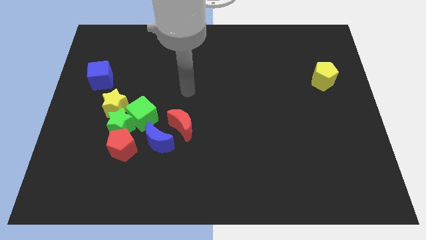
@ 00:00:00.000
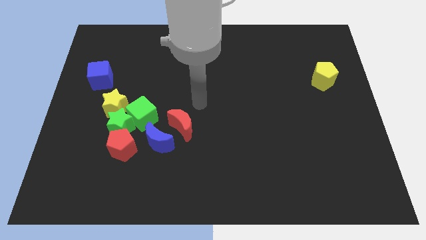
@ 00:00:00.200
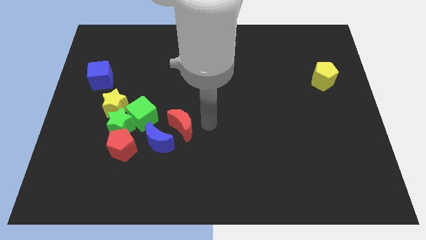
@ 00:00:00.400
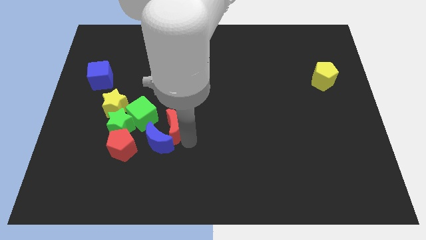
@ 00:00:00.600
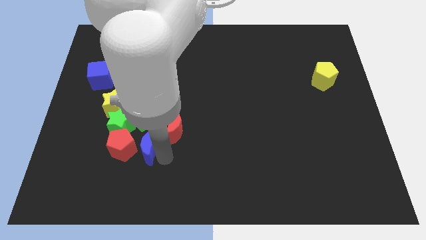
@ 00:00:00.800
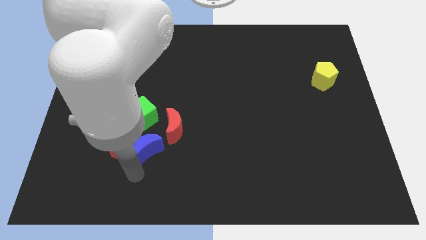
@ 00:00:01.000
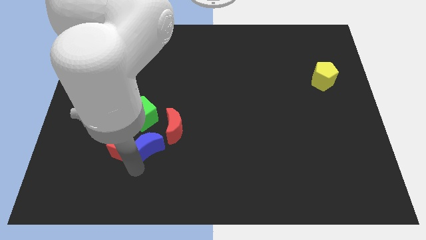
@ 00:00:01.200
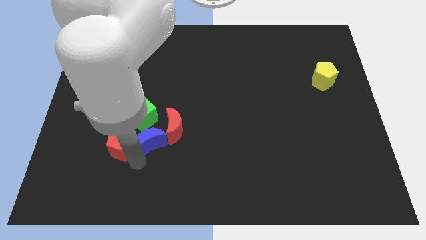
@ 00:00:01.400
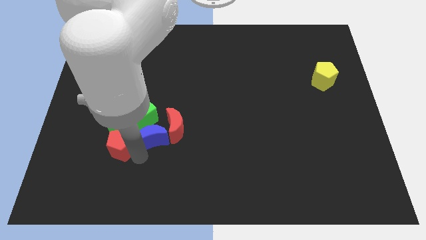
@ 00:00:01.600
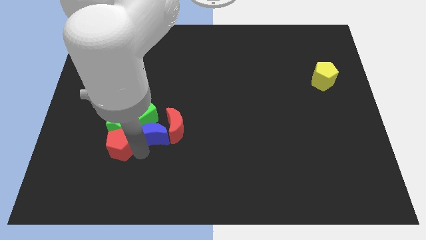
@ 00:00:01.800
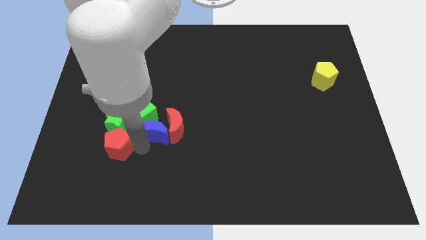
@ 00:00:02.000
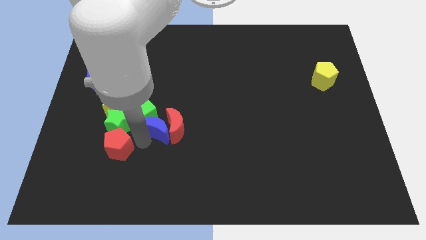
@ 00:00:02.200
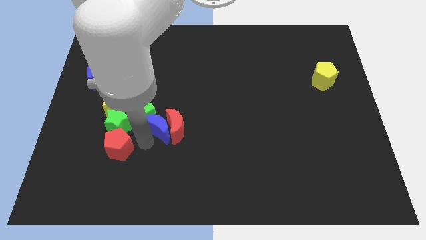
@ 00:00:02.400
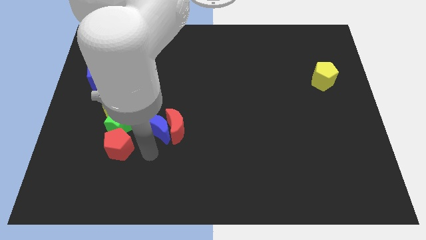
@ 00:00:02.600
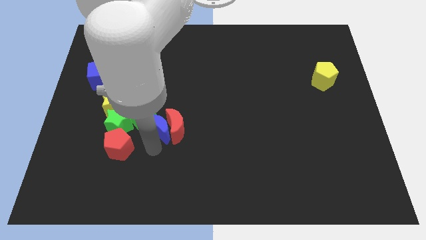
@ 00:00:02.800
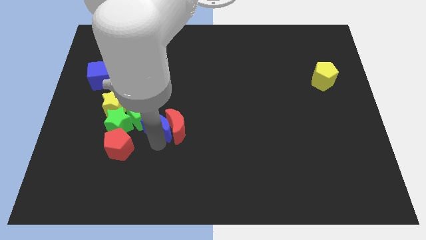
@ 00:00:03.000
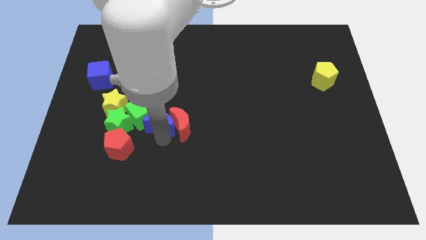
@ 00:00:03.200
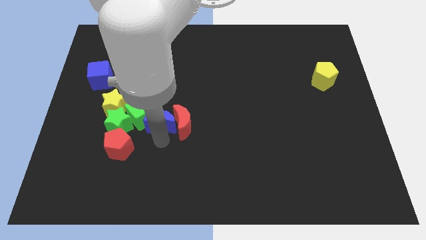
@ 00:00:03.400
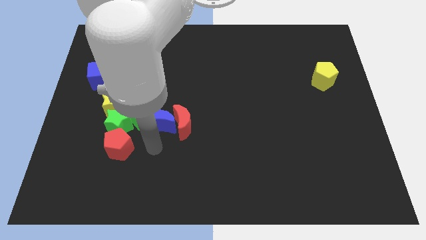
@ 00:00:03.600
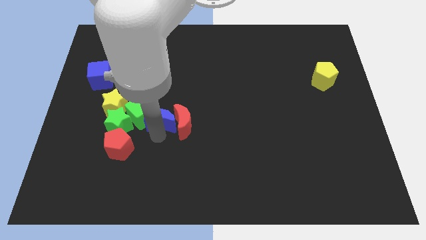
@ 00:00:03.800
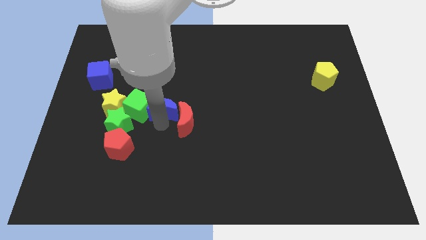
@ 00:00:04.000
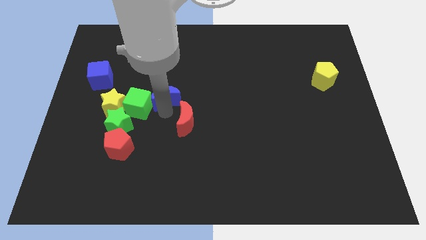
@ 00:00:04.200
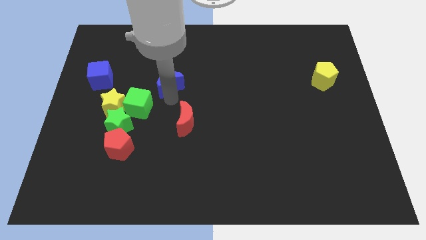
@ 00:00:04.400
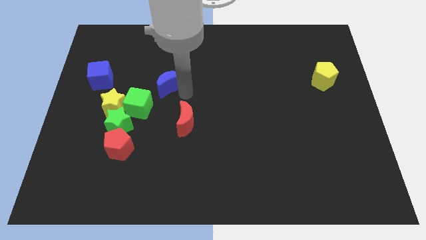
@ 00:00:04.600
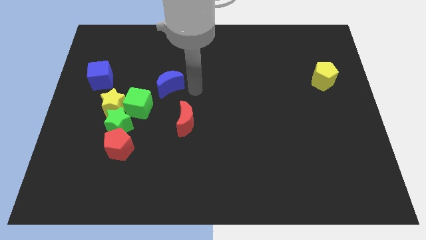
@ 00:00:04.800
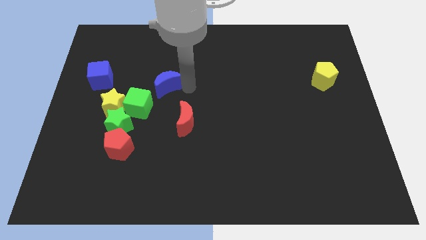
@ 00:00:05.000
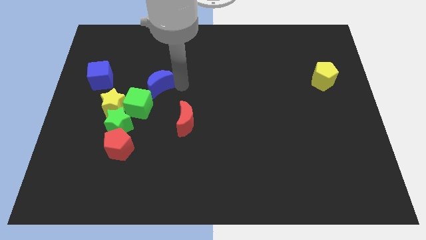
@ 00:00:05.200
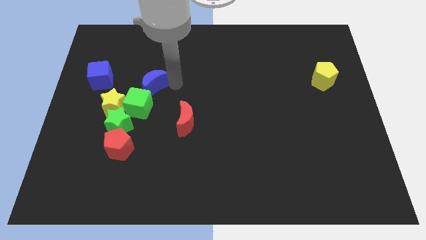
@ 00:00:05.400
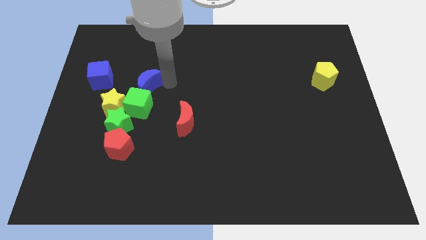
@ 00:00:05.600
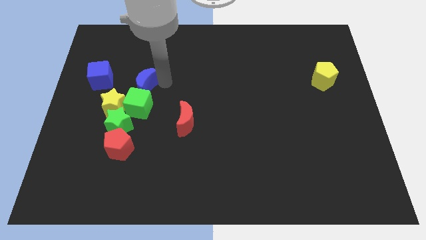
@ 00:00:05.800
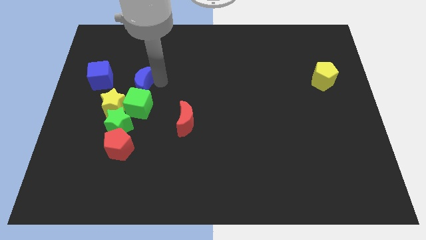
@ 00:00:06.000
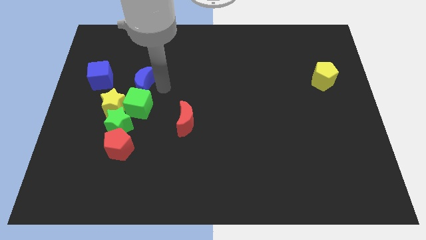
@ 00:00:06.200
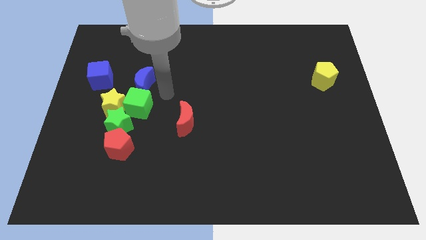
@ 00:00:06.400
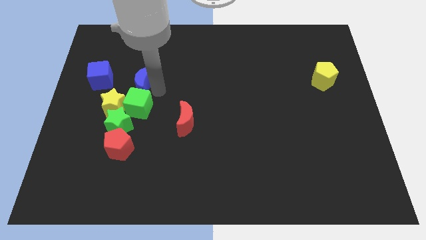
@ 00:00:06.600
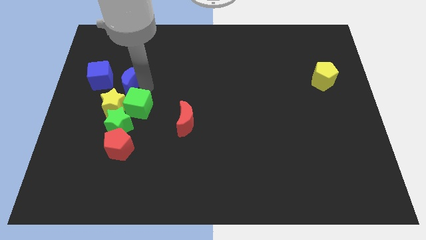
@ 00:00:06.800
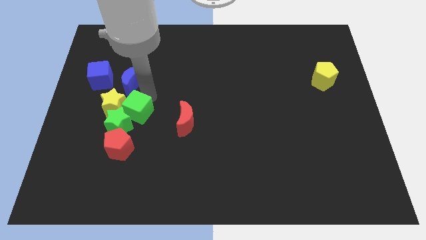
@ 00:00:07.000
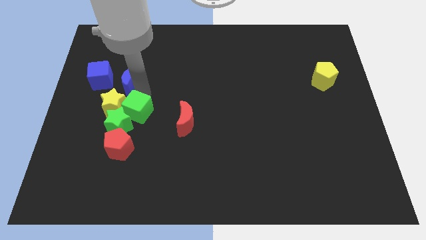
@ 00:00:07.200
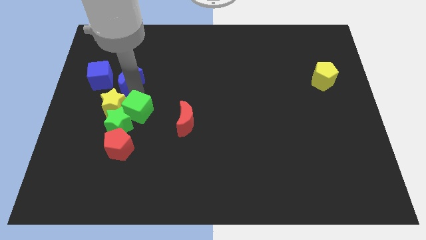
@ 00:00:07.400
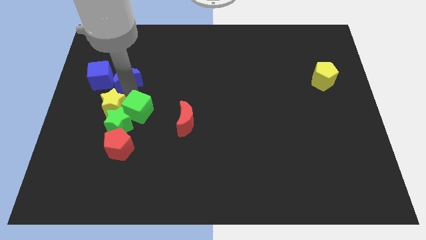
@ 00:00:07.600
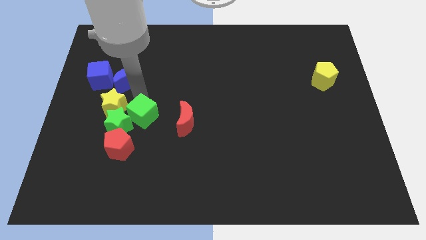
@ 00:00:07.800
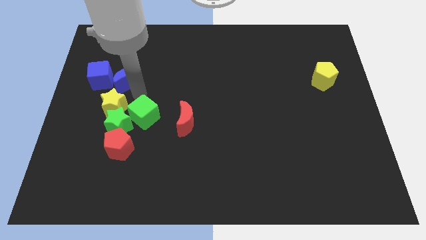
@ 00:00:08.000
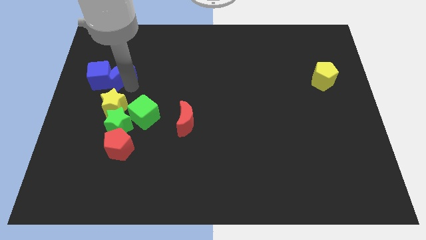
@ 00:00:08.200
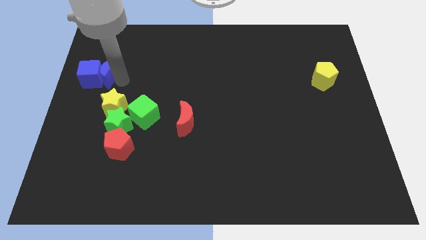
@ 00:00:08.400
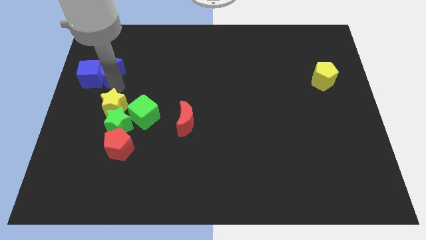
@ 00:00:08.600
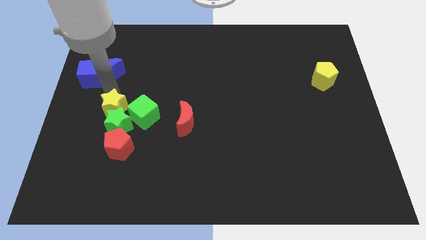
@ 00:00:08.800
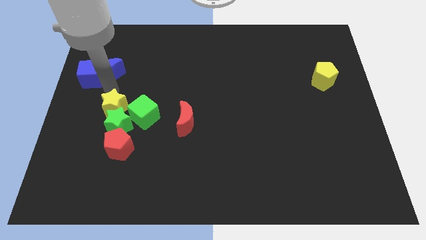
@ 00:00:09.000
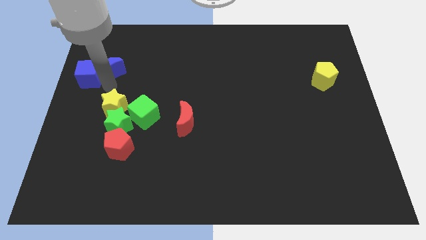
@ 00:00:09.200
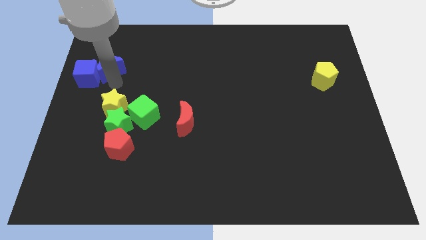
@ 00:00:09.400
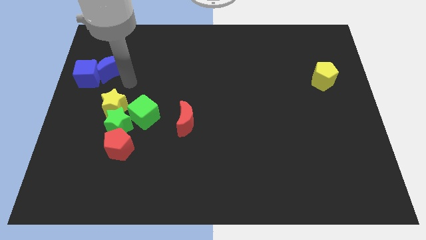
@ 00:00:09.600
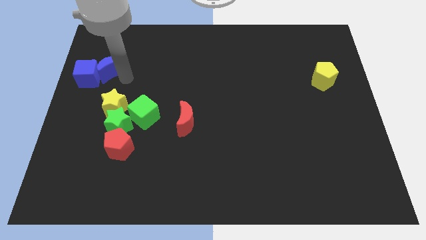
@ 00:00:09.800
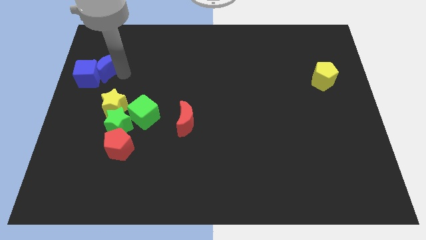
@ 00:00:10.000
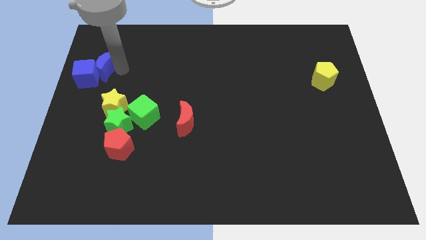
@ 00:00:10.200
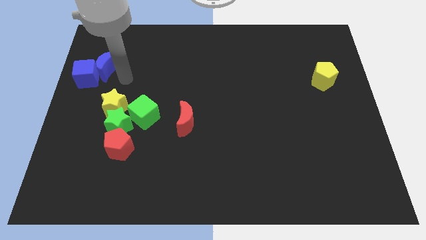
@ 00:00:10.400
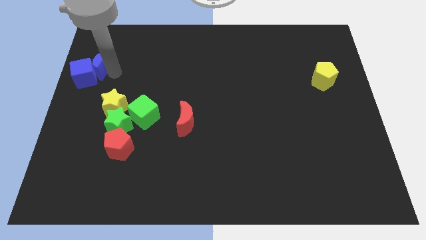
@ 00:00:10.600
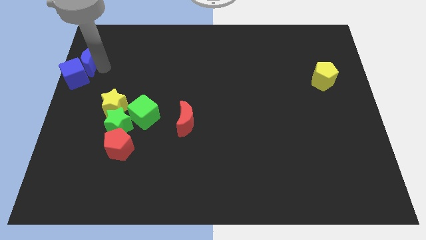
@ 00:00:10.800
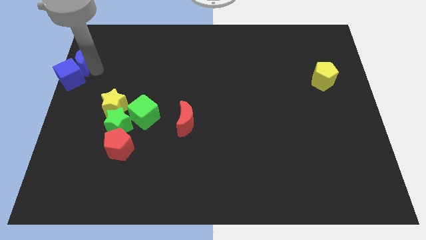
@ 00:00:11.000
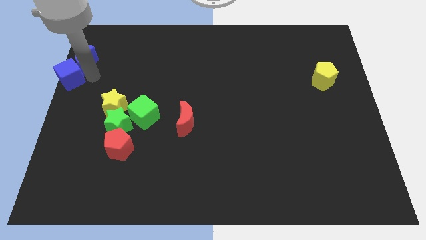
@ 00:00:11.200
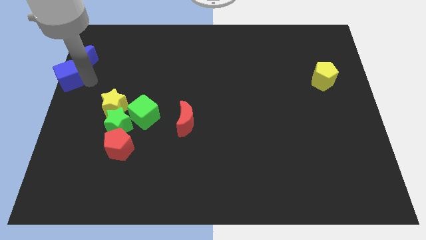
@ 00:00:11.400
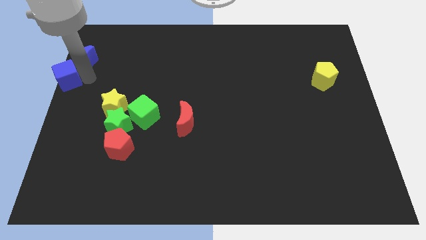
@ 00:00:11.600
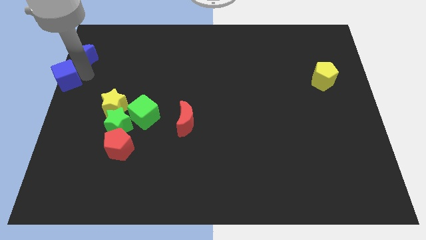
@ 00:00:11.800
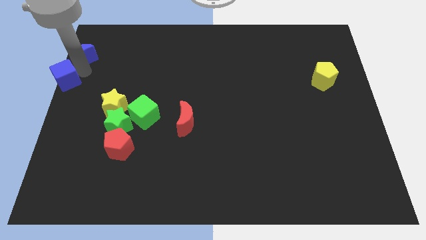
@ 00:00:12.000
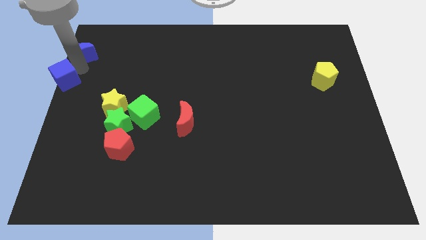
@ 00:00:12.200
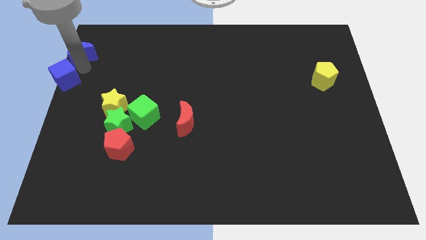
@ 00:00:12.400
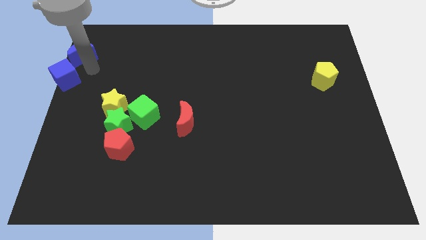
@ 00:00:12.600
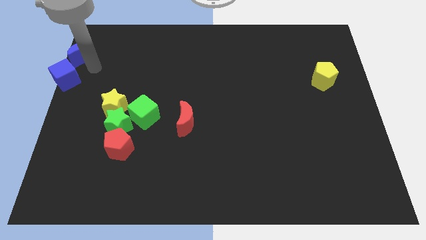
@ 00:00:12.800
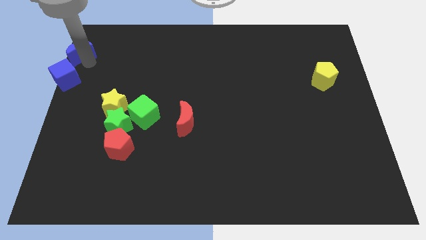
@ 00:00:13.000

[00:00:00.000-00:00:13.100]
put the blue moon to the top left of the board

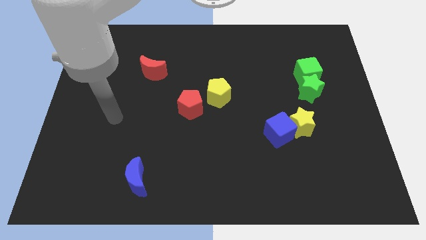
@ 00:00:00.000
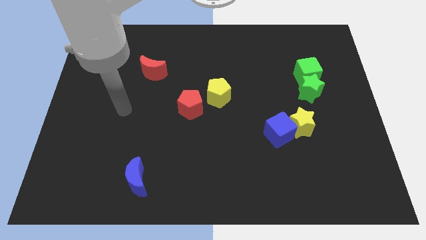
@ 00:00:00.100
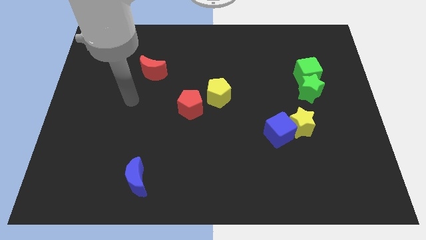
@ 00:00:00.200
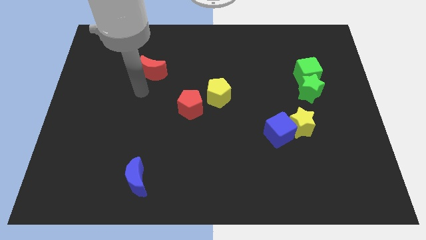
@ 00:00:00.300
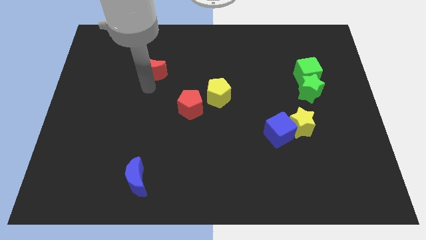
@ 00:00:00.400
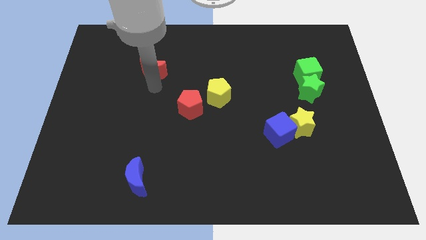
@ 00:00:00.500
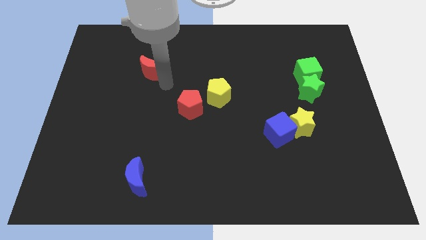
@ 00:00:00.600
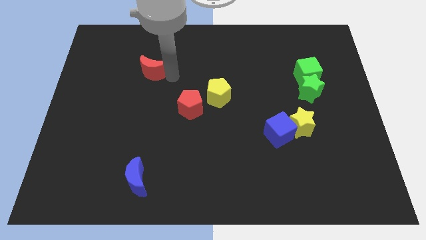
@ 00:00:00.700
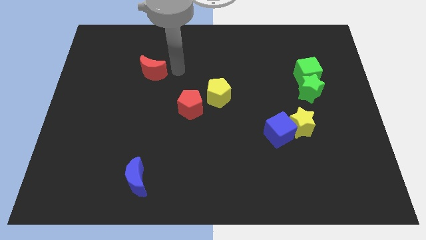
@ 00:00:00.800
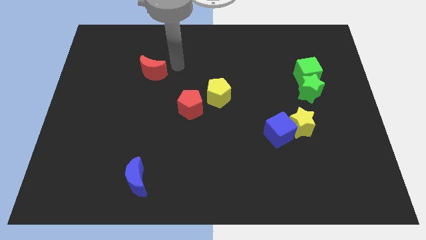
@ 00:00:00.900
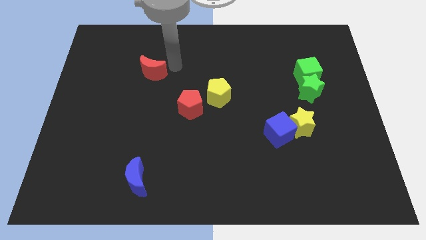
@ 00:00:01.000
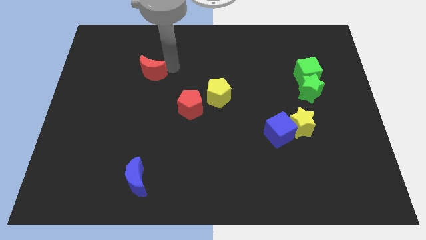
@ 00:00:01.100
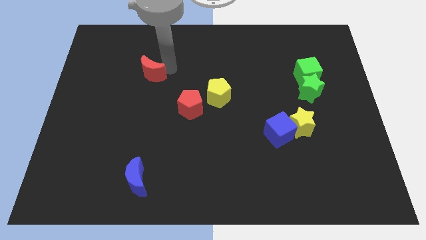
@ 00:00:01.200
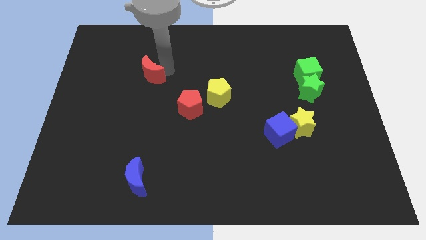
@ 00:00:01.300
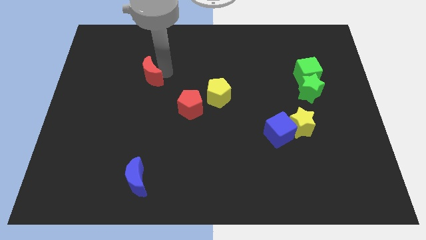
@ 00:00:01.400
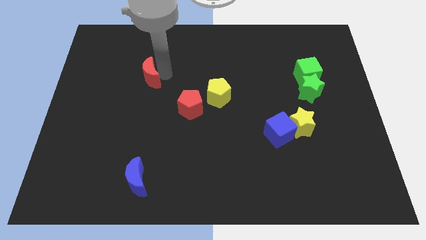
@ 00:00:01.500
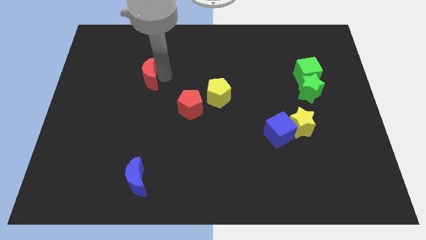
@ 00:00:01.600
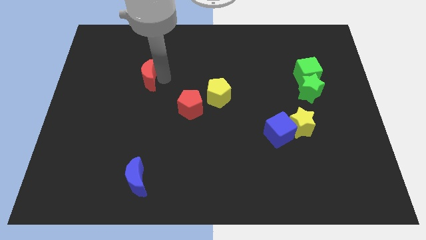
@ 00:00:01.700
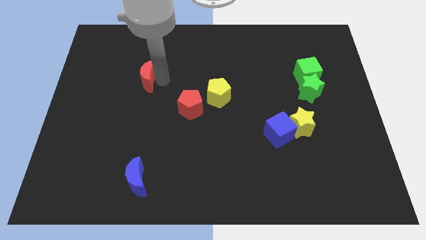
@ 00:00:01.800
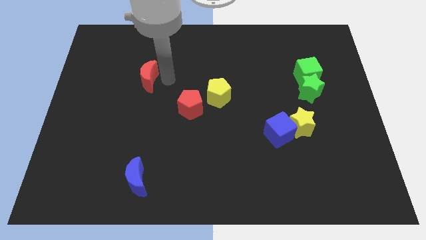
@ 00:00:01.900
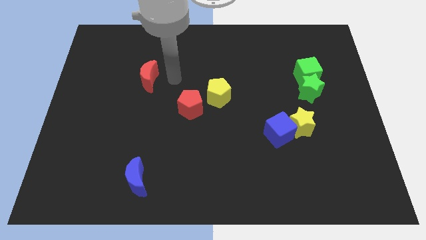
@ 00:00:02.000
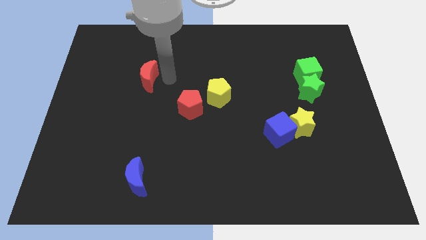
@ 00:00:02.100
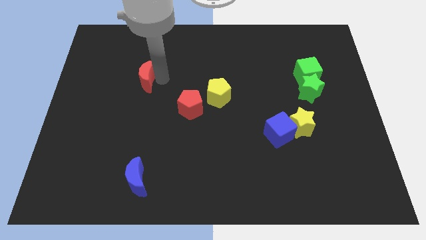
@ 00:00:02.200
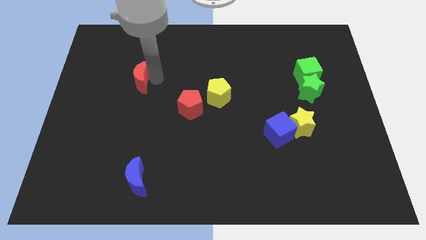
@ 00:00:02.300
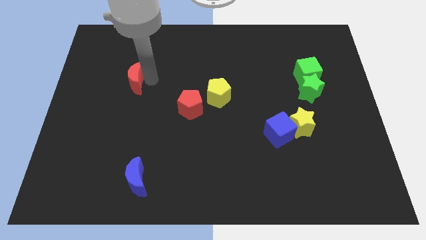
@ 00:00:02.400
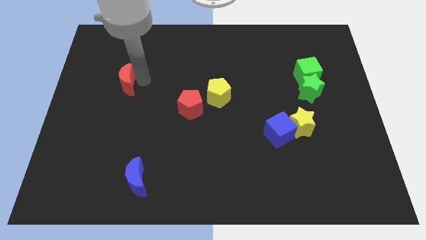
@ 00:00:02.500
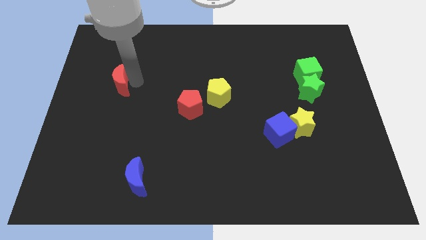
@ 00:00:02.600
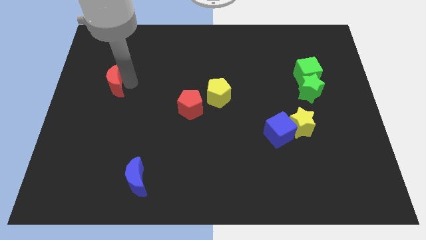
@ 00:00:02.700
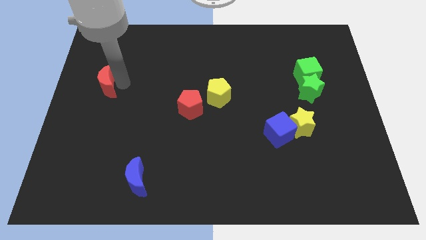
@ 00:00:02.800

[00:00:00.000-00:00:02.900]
put the red moon to the center left
